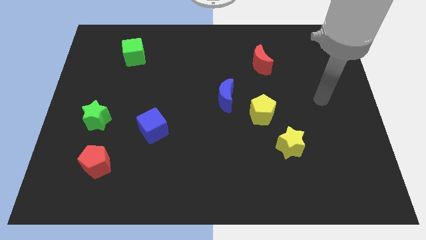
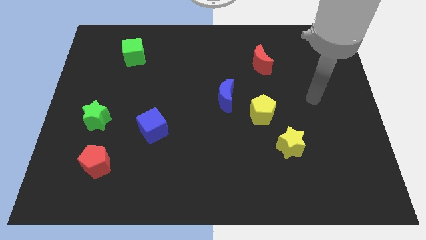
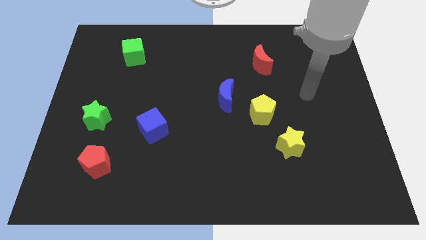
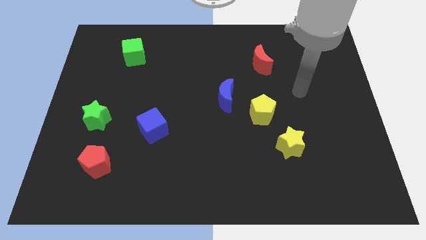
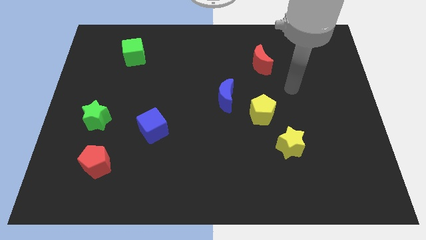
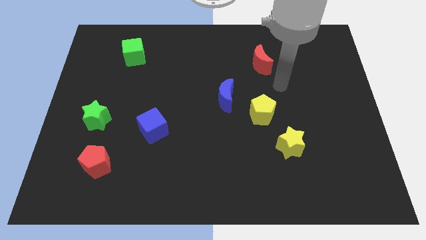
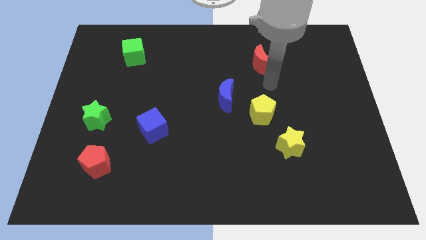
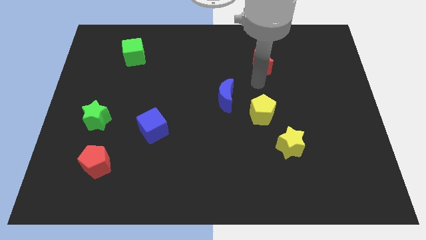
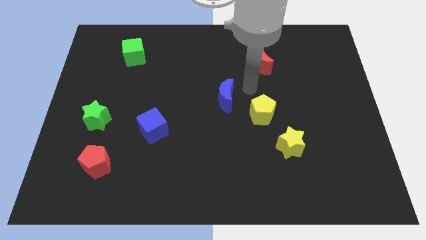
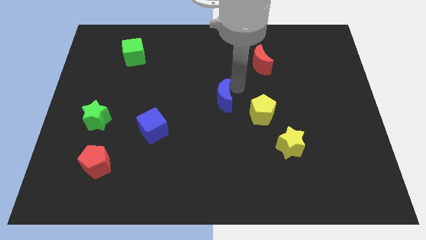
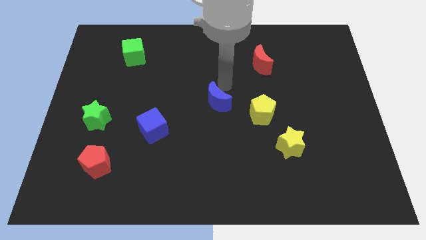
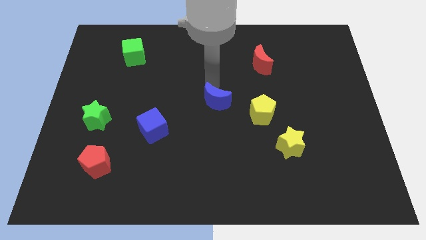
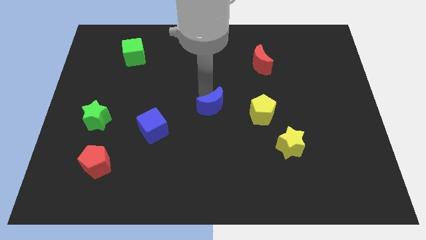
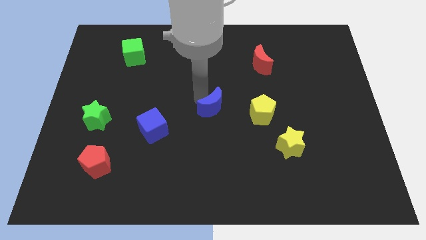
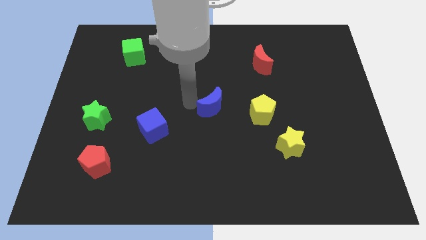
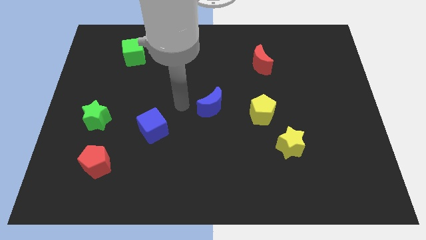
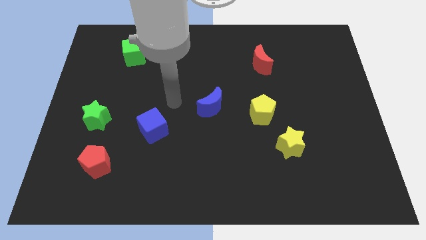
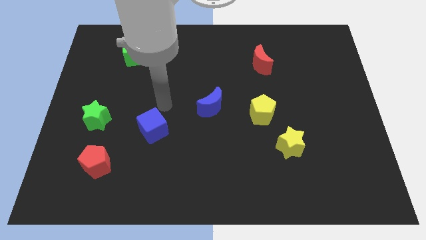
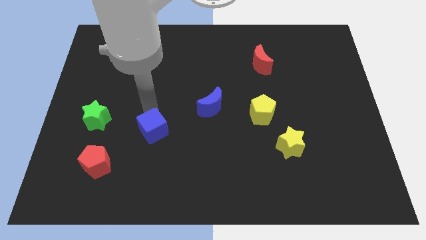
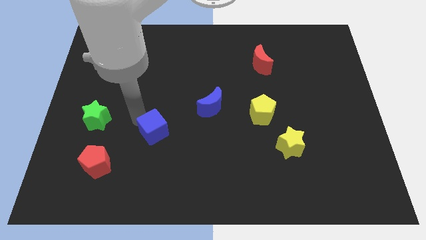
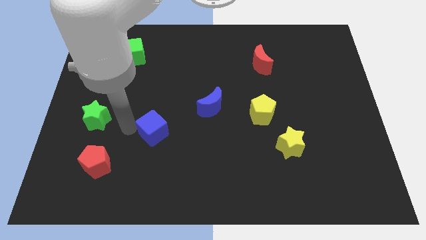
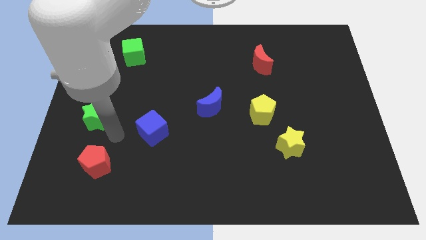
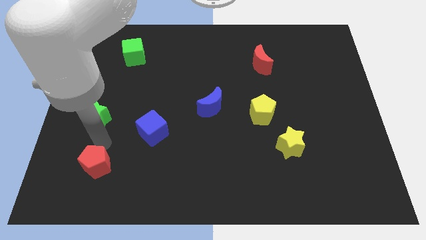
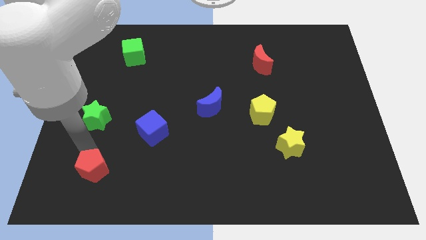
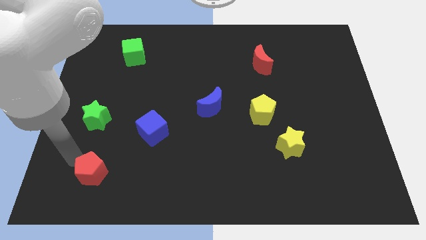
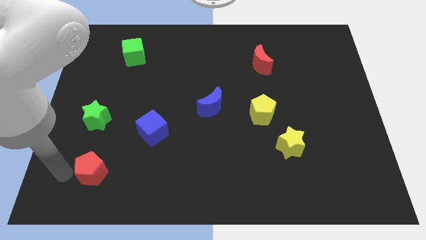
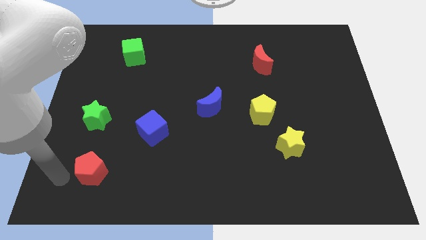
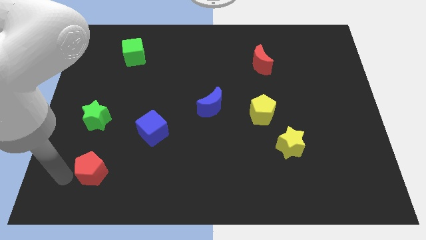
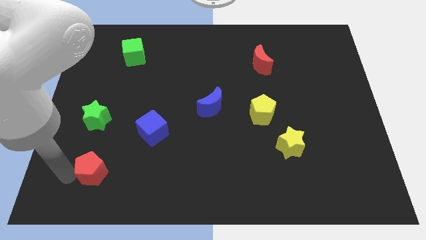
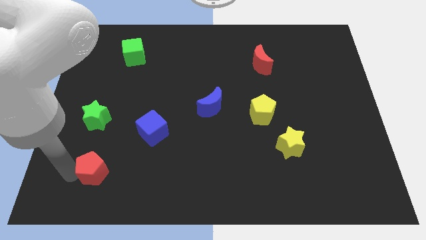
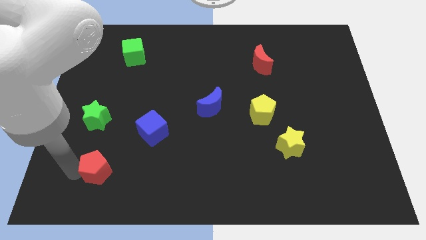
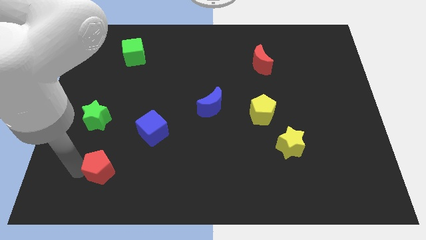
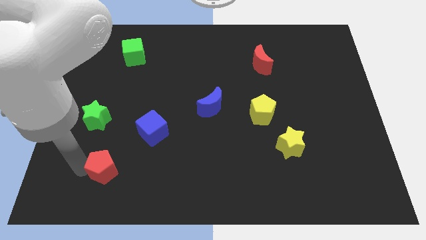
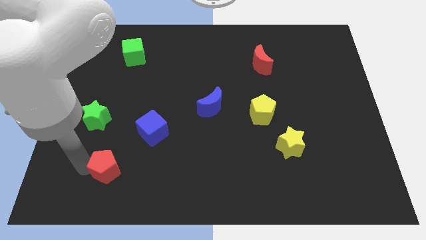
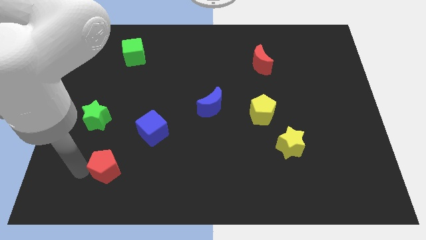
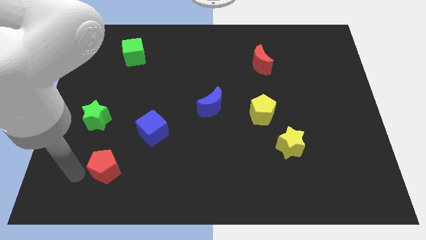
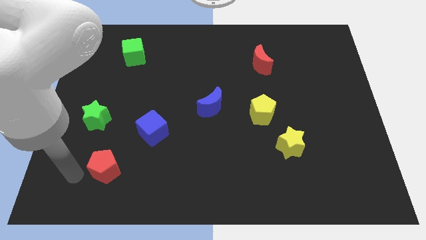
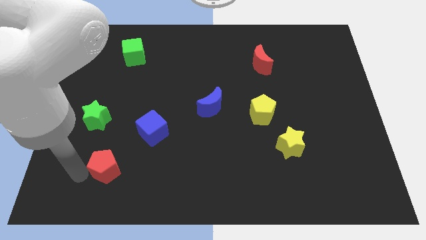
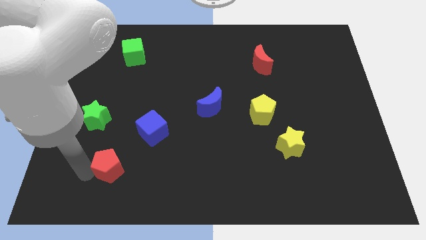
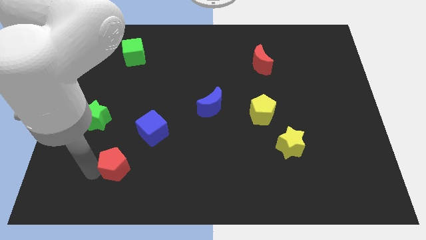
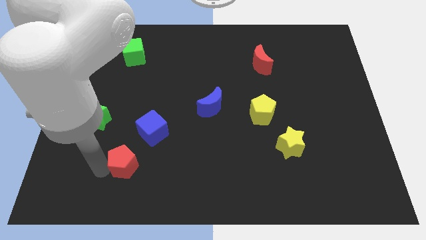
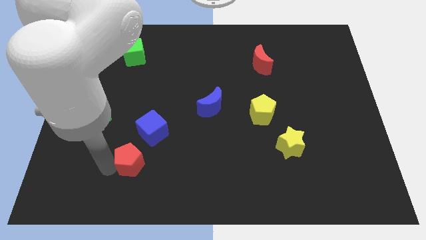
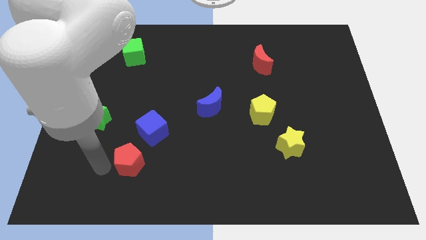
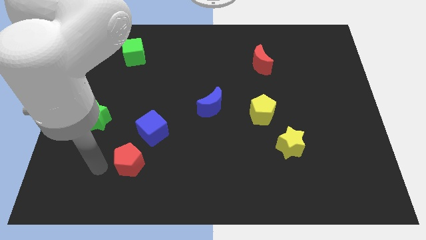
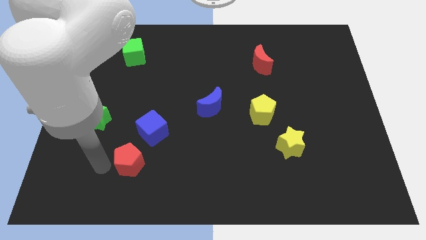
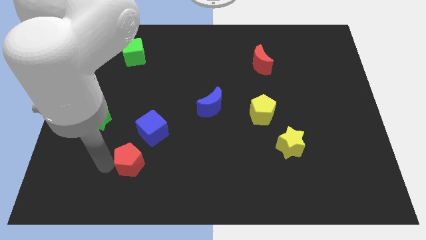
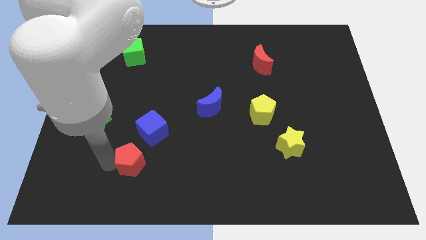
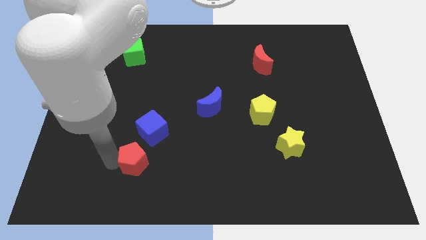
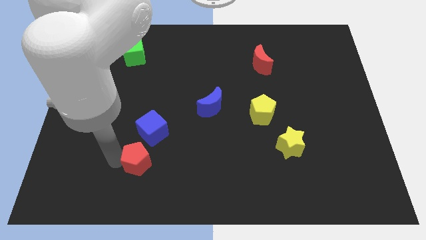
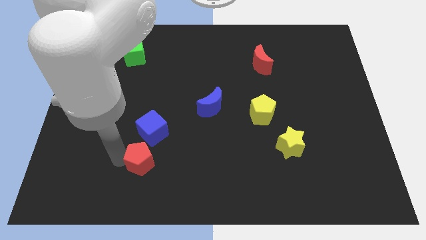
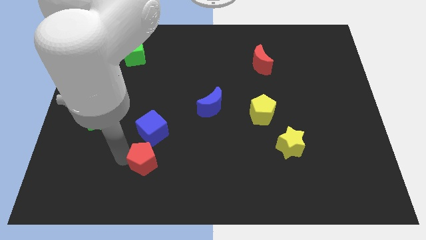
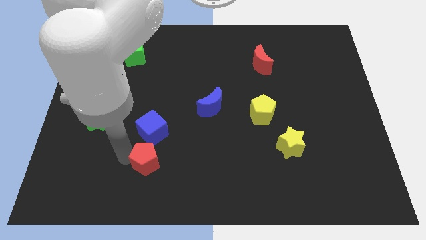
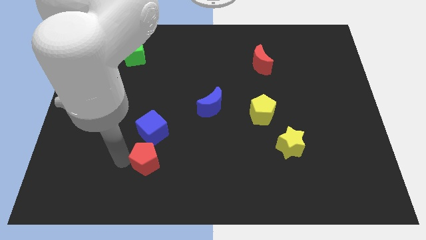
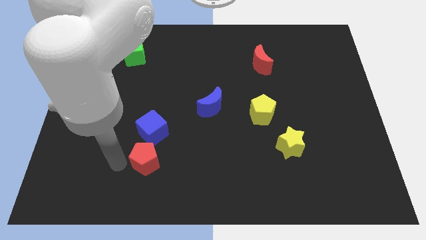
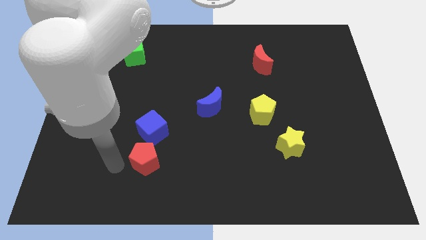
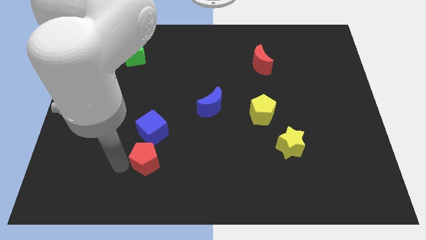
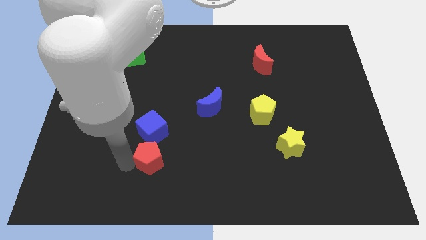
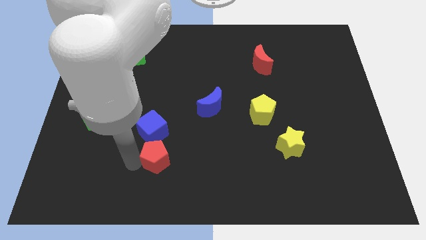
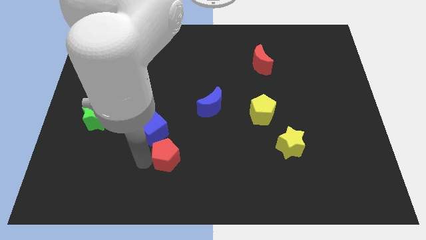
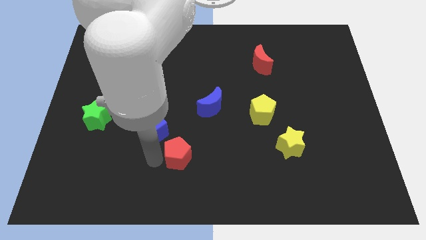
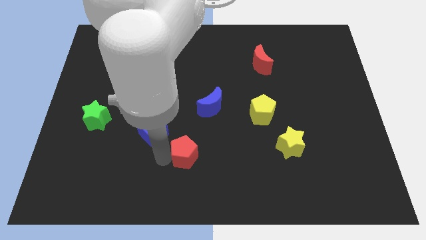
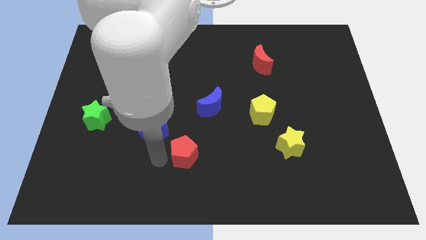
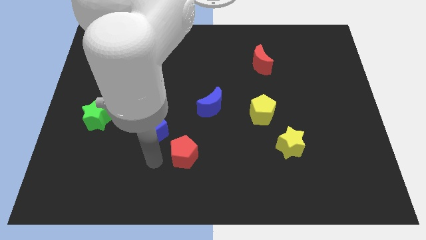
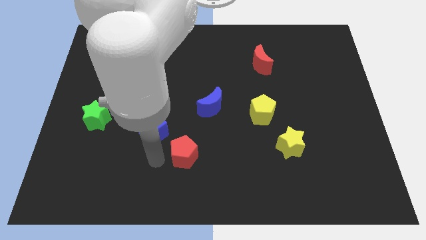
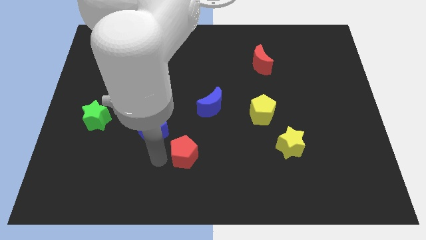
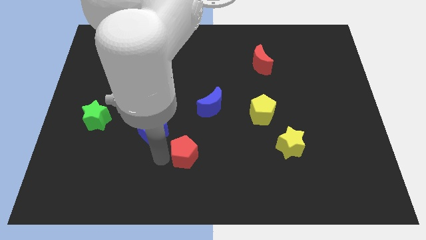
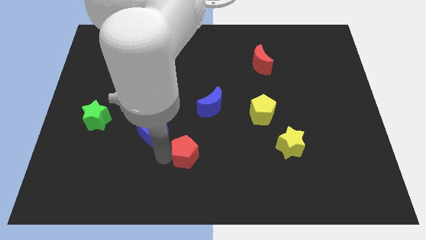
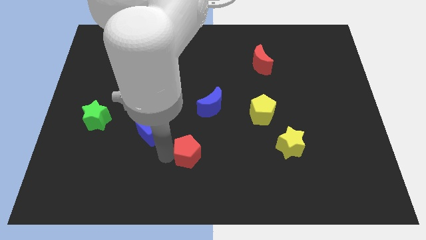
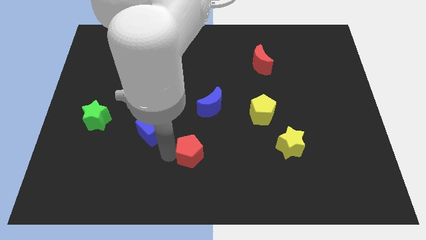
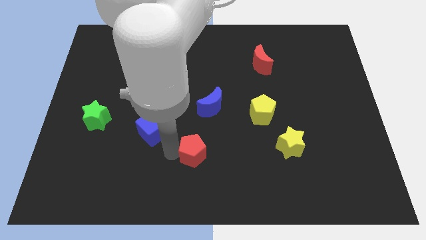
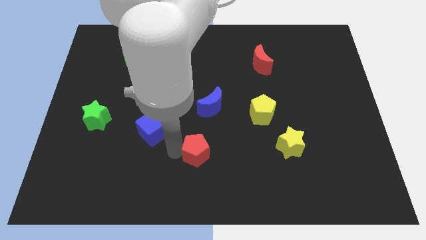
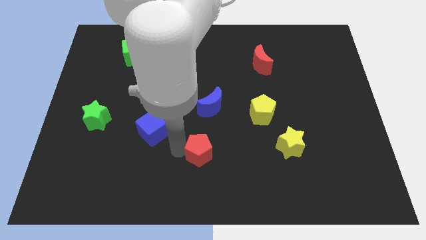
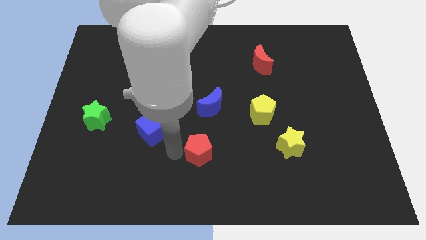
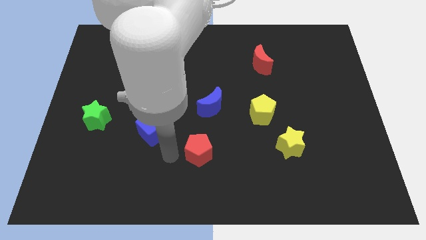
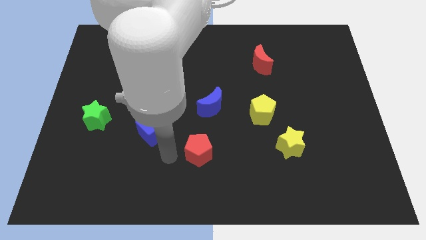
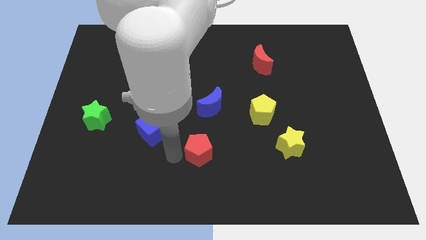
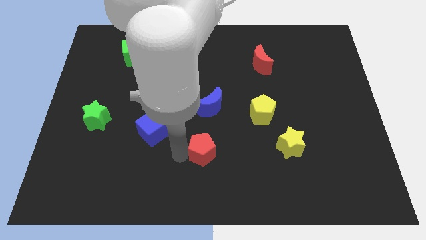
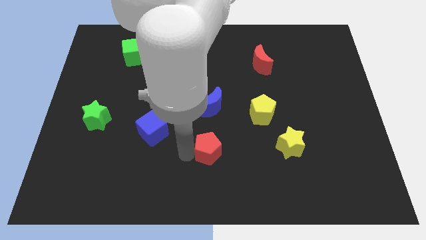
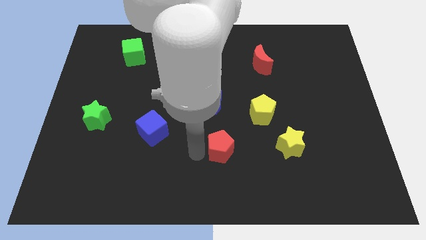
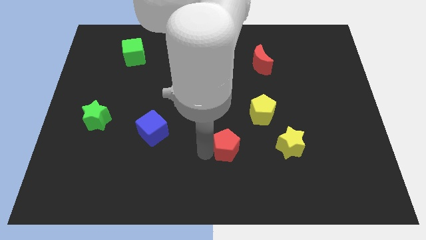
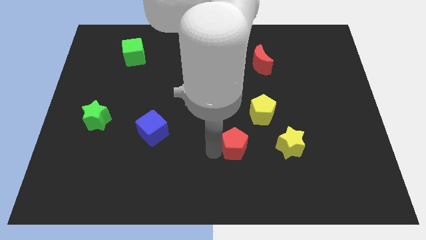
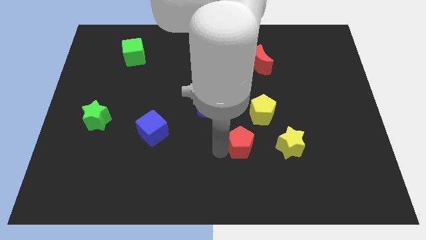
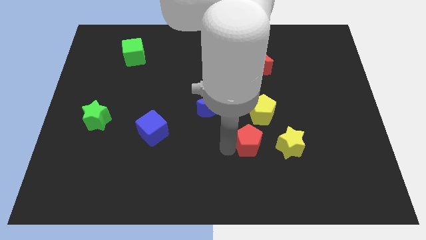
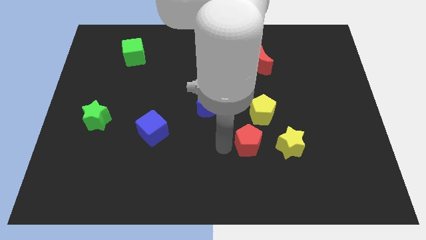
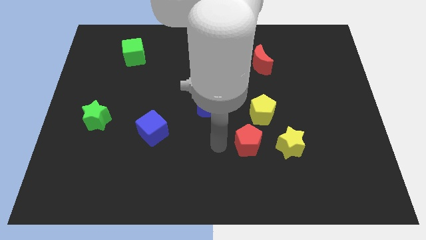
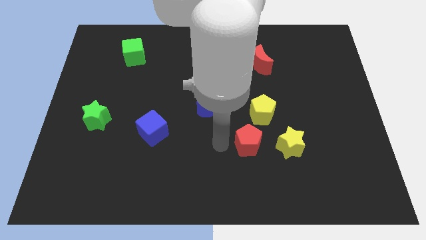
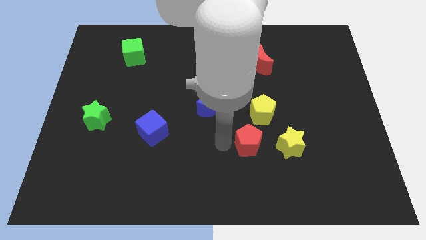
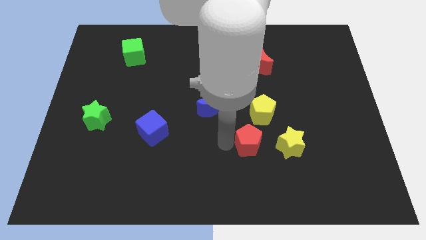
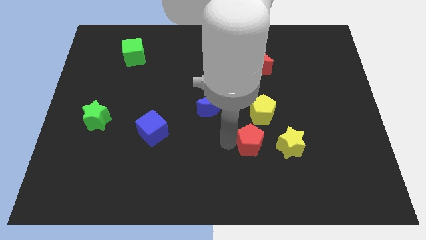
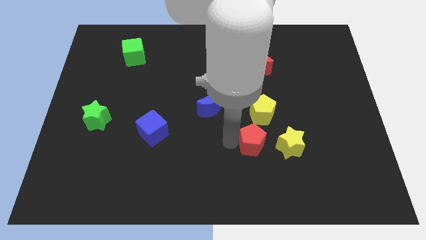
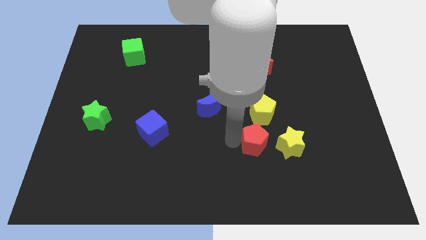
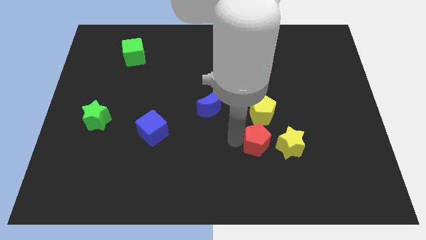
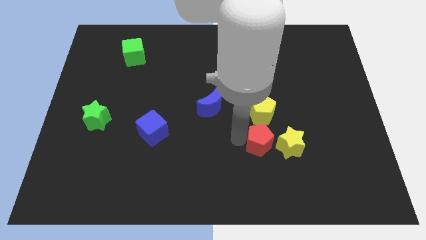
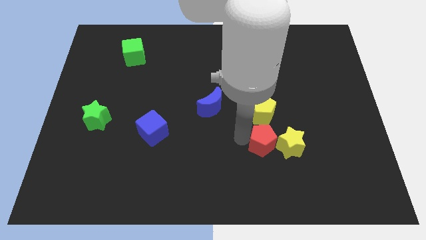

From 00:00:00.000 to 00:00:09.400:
push the red pentagon close to the yellow star
